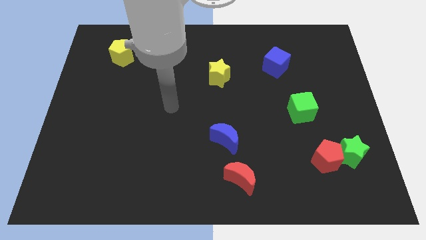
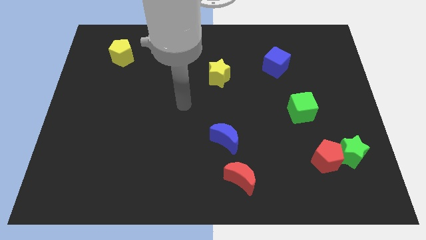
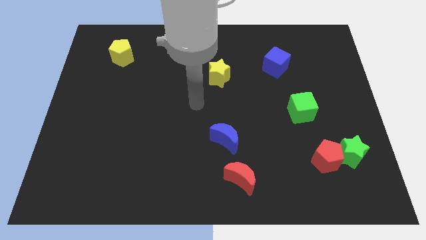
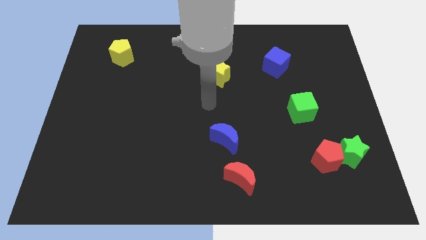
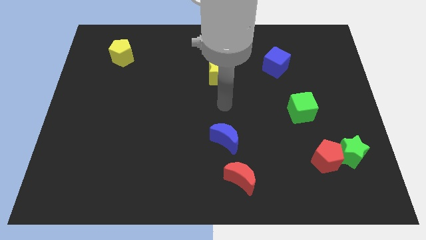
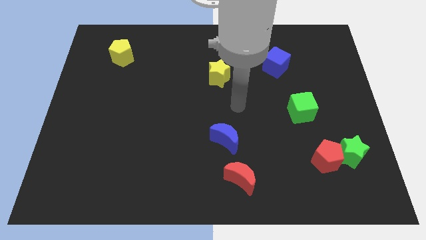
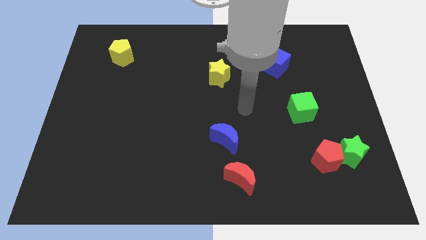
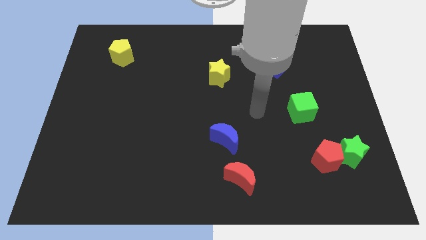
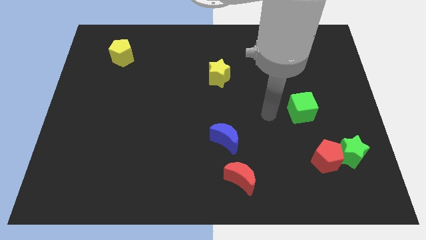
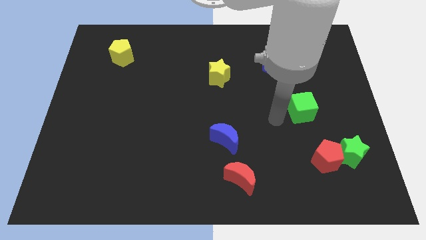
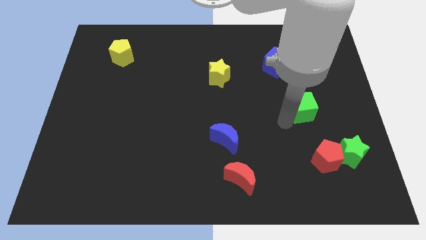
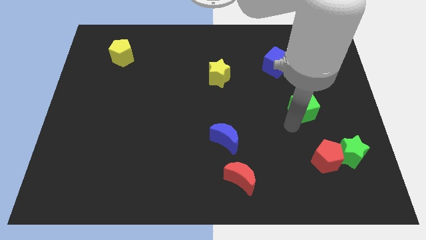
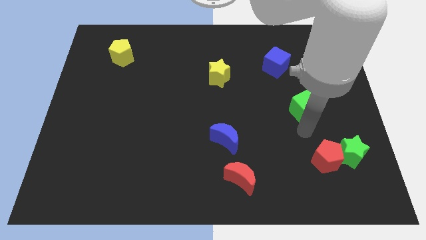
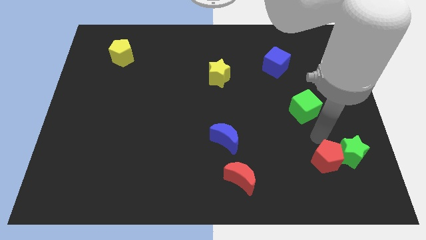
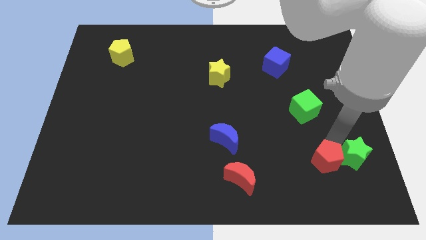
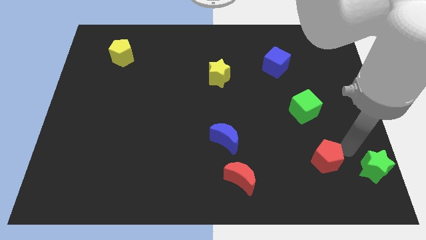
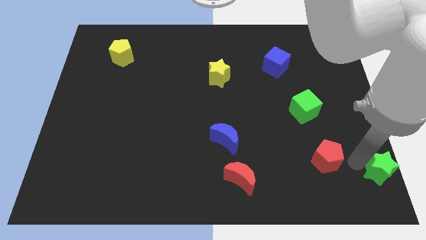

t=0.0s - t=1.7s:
move the red pentagon away from the green star

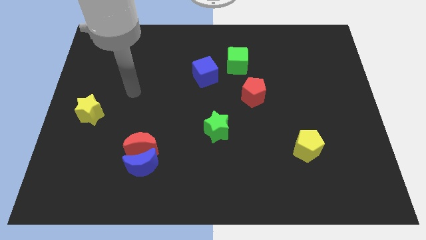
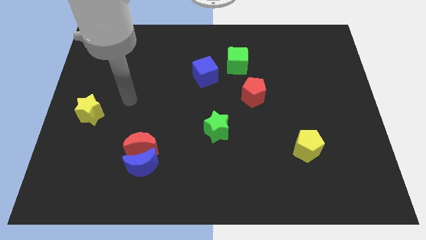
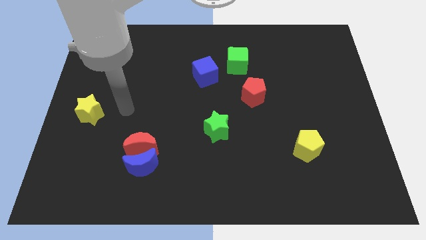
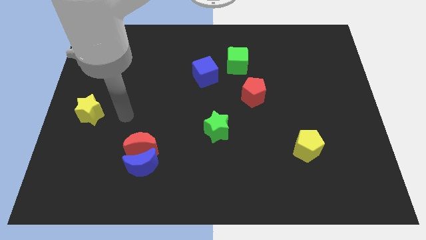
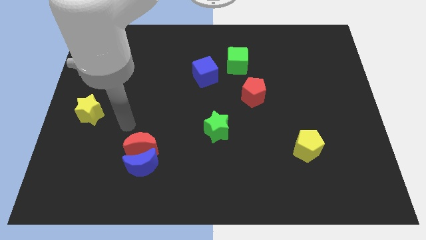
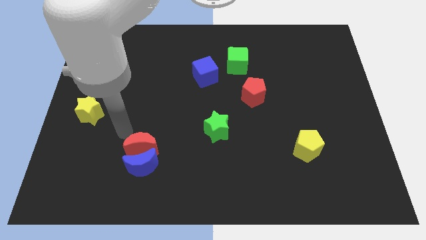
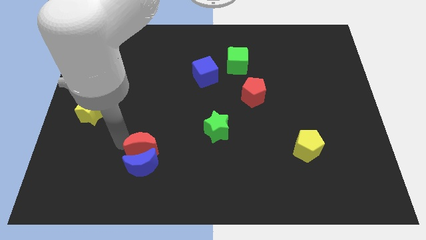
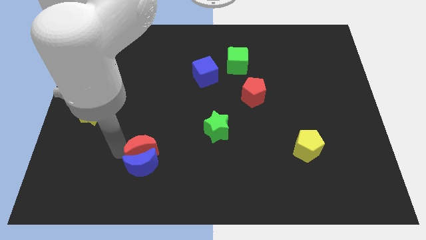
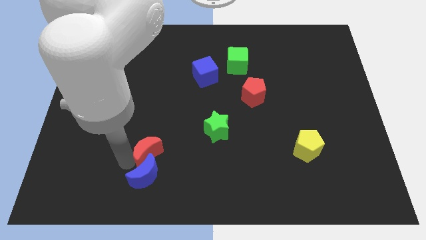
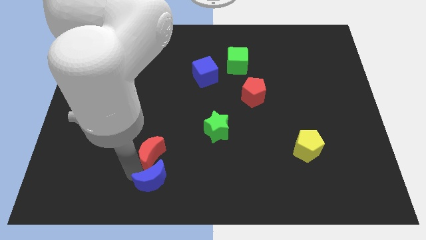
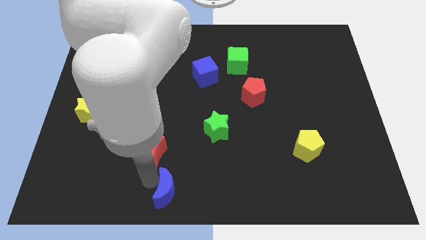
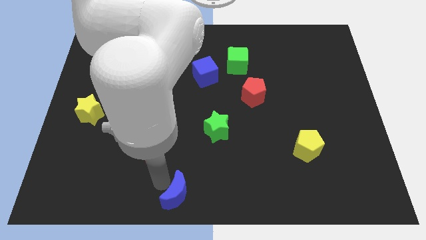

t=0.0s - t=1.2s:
pull the red moon apart from the blue moon

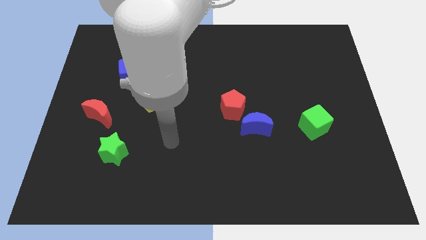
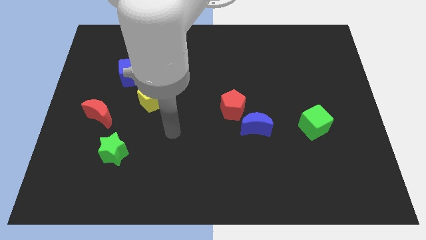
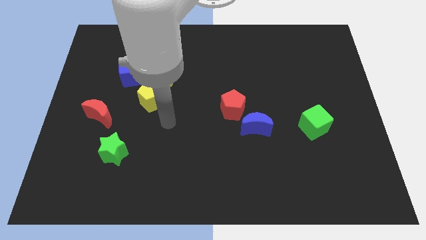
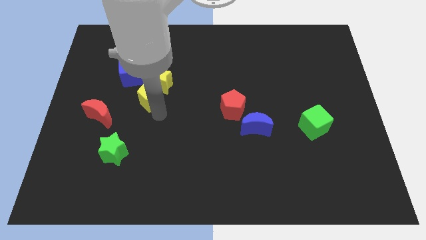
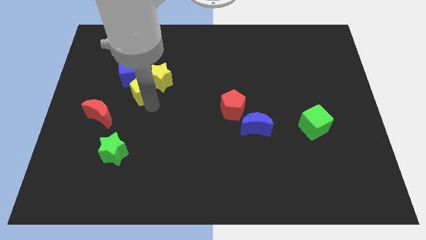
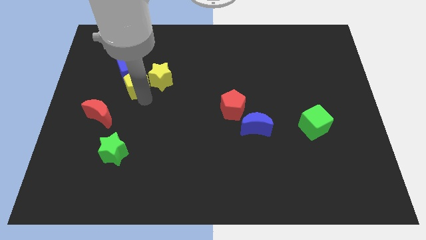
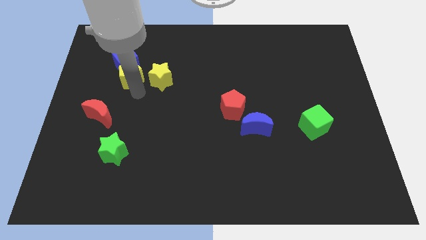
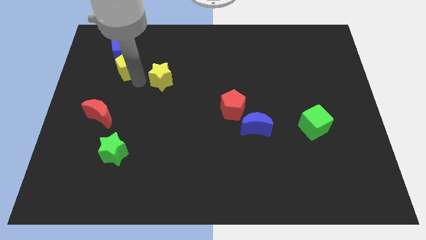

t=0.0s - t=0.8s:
move the yellow star away from the yellow pentagon and blue cube

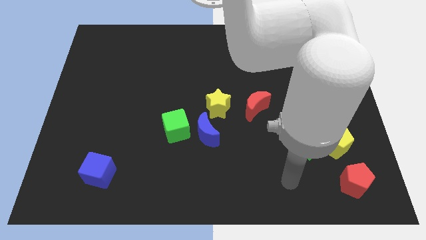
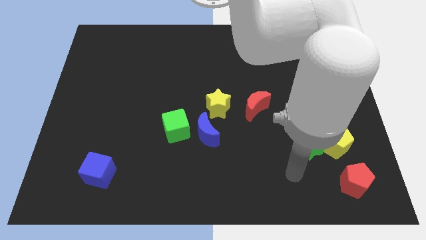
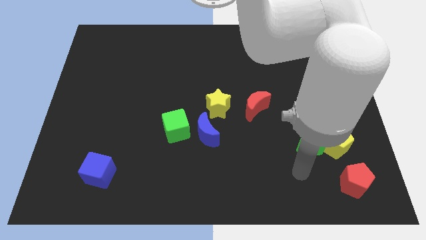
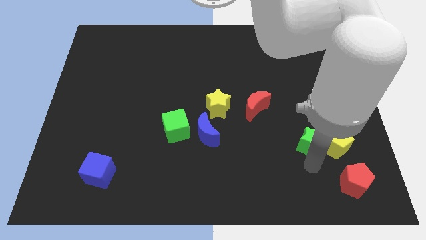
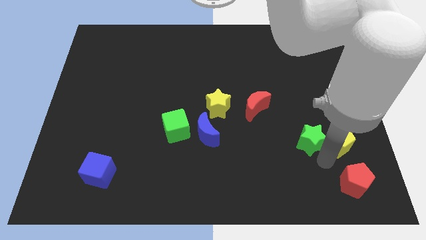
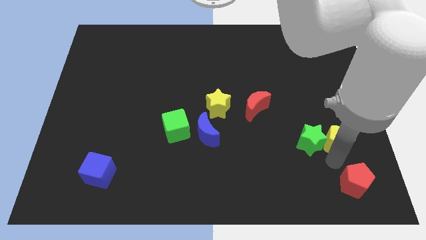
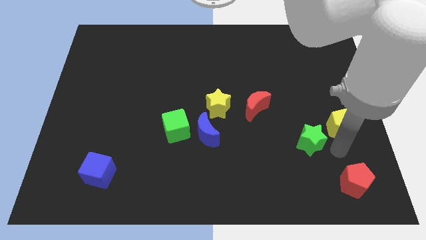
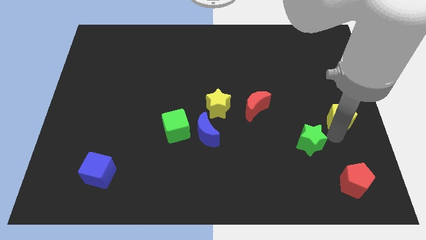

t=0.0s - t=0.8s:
move the green star away from the yellow pentagon

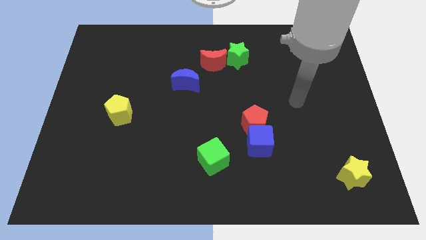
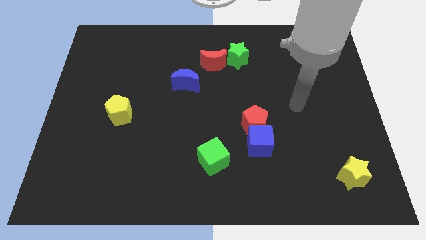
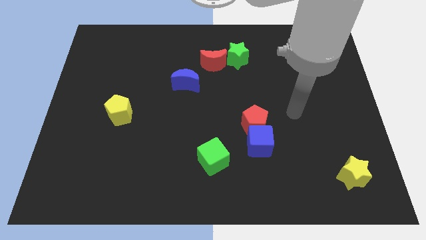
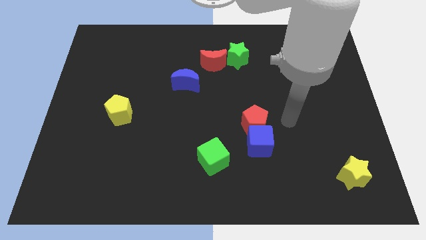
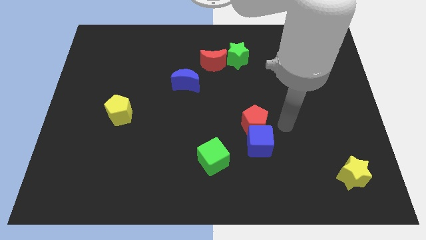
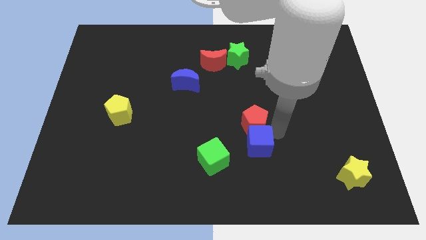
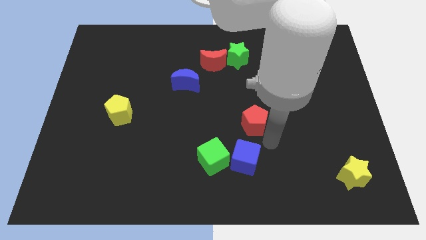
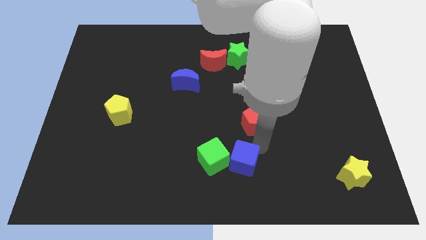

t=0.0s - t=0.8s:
pull the red pentagon apart from the blue cube

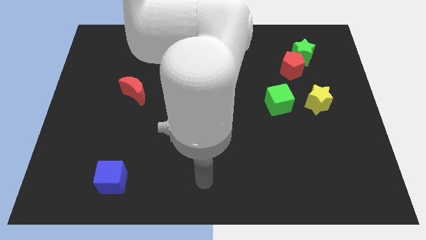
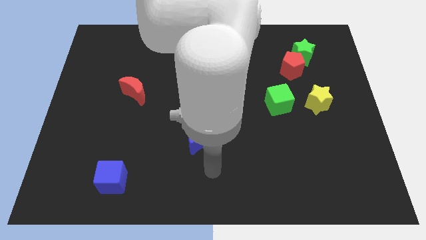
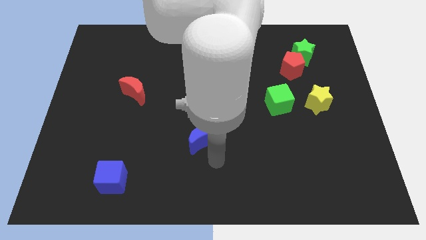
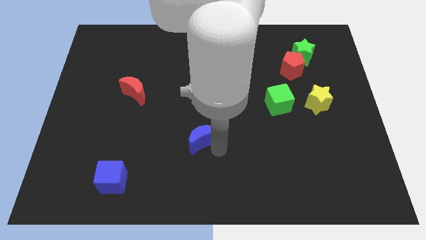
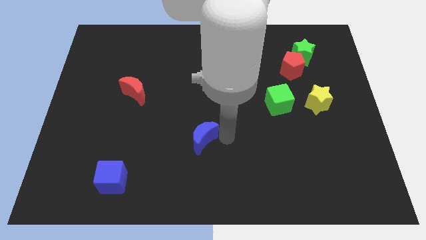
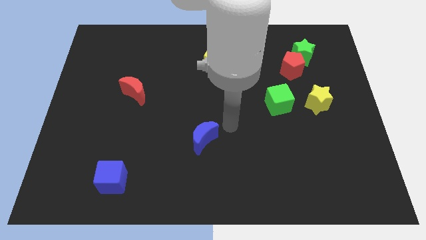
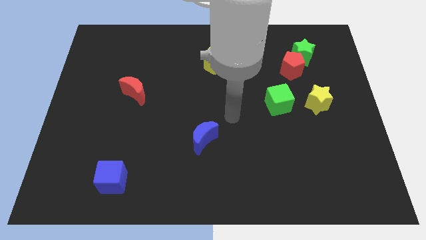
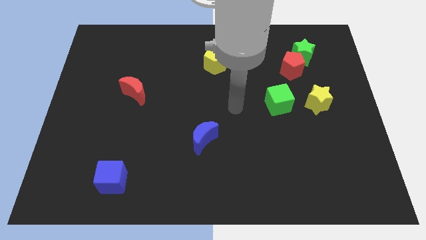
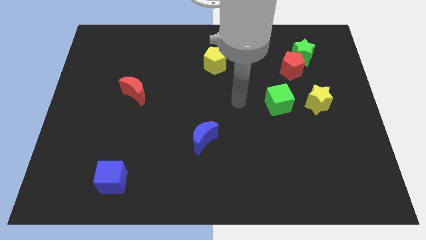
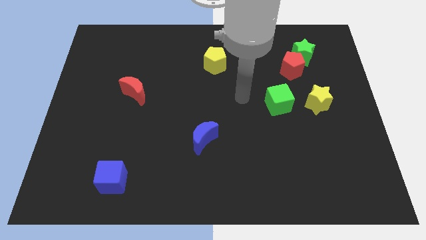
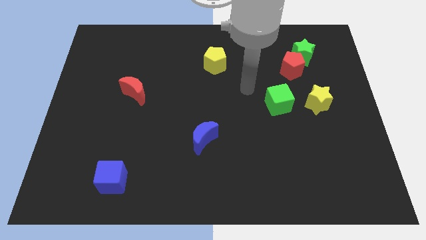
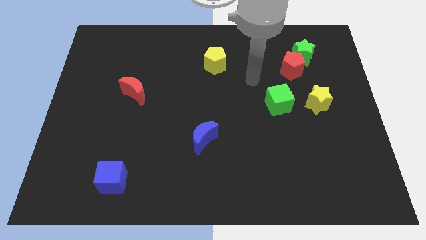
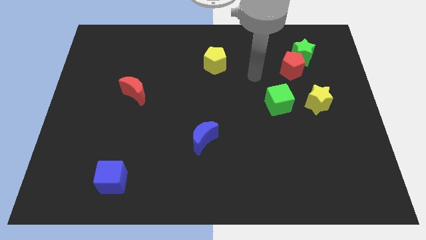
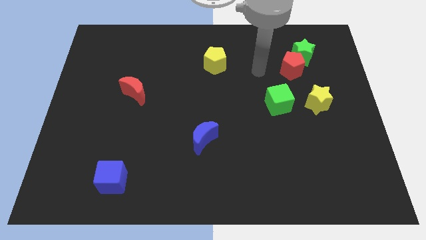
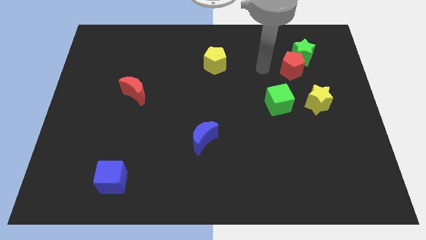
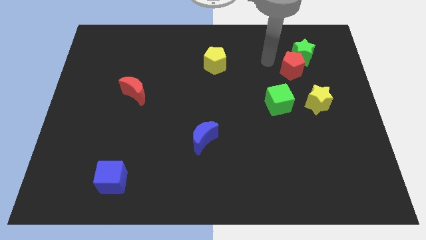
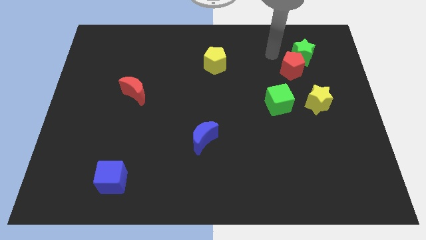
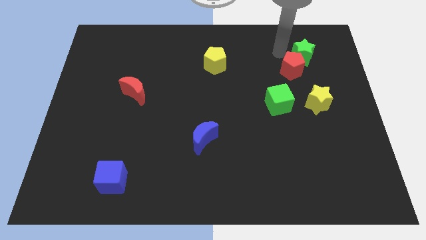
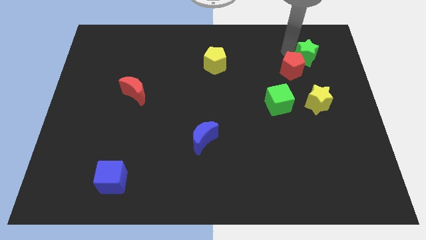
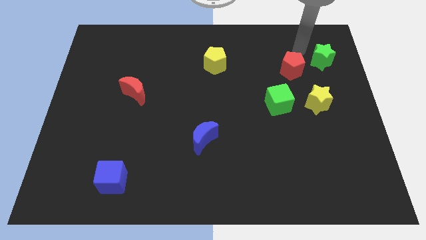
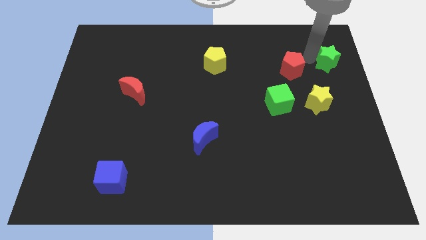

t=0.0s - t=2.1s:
separate the red pentagon from the green star

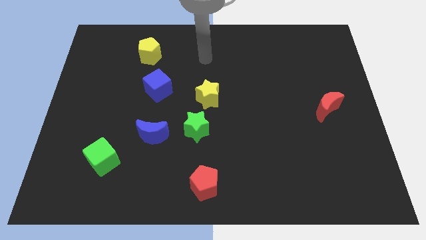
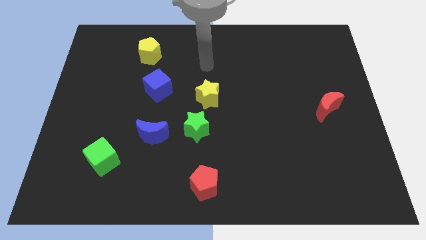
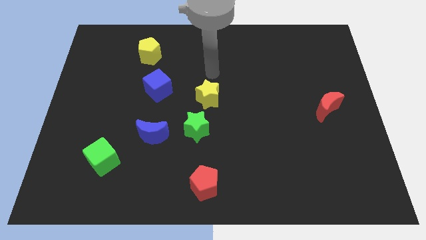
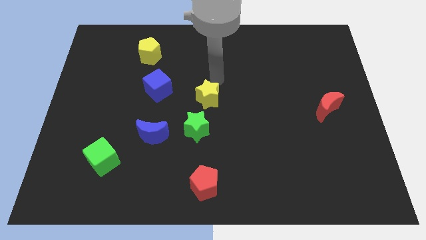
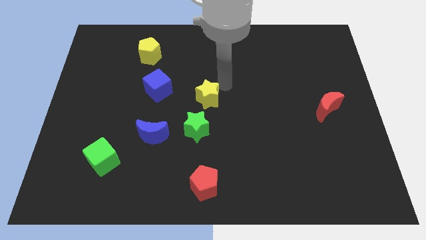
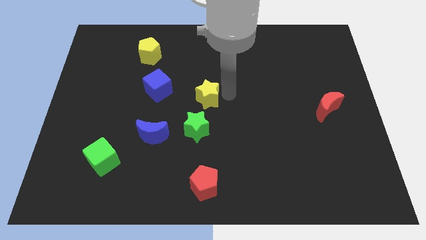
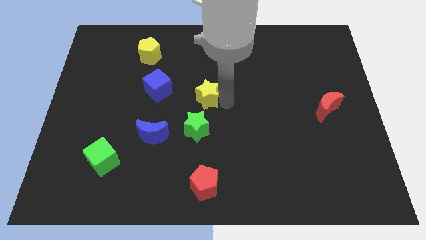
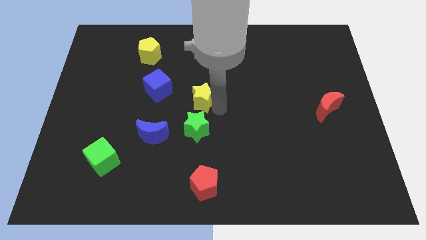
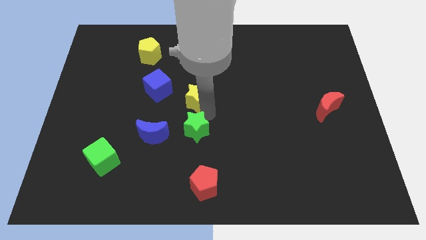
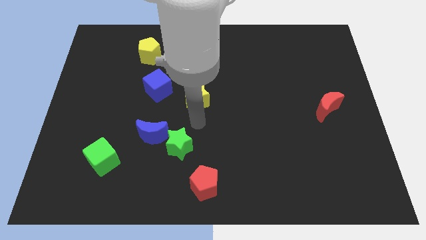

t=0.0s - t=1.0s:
pull the yellow star apart from the green star

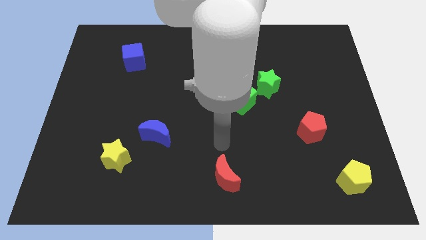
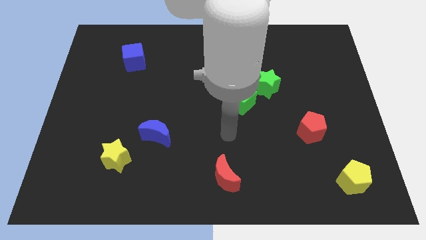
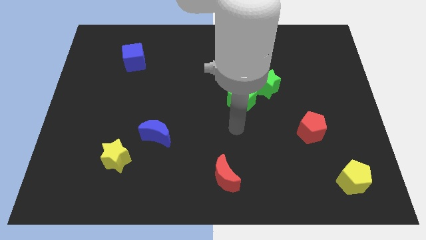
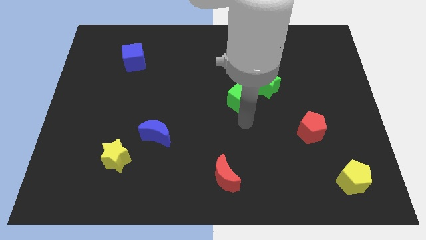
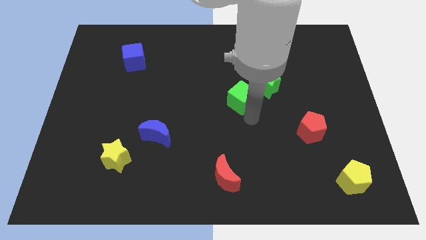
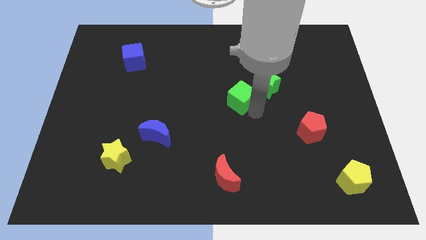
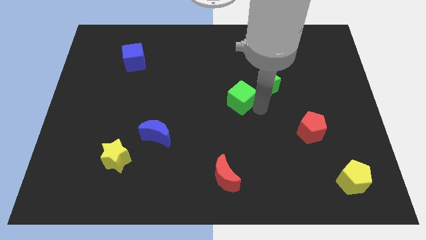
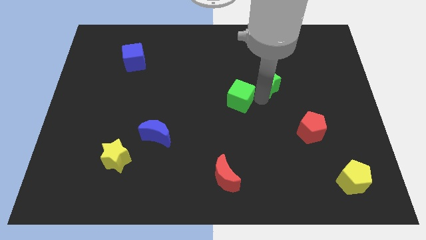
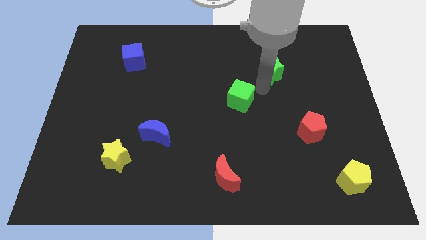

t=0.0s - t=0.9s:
pull the green cube apart from the green star
